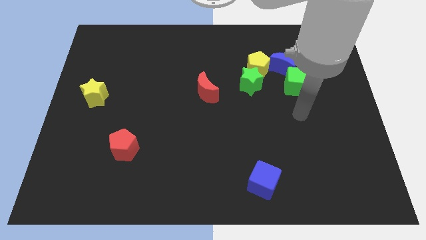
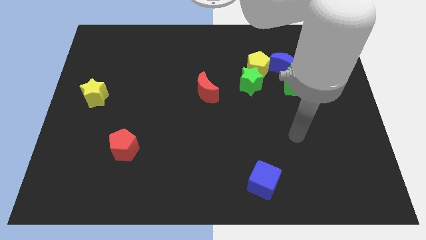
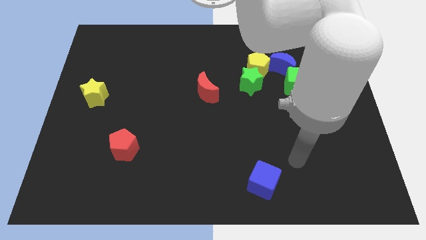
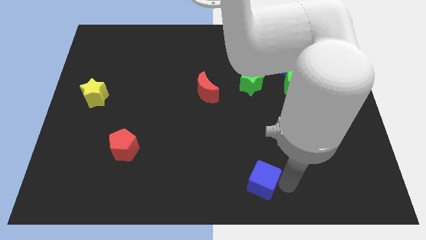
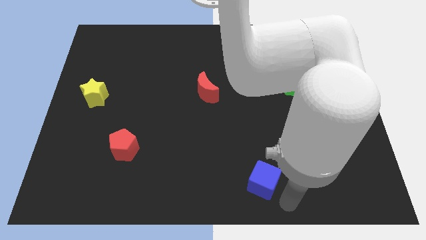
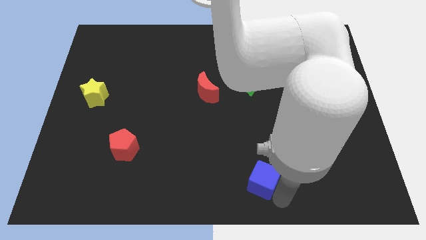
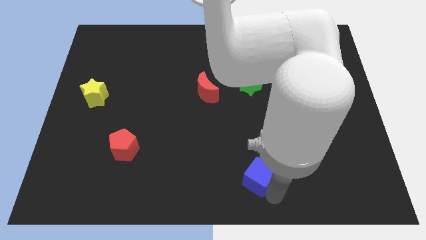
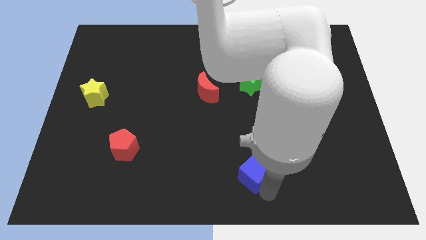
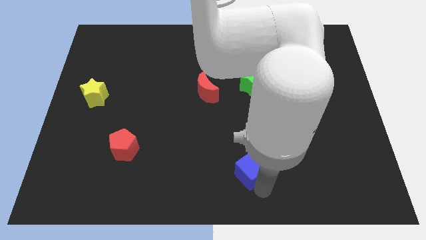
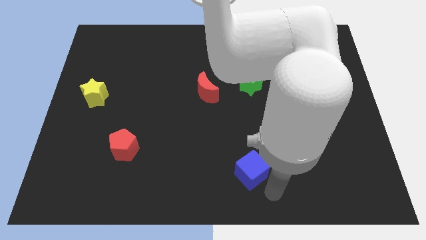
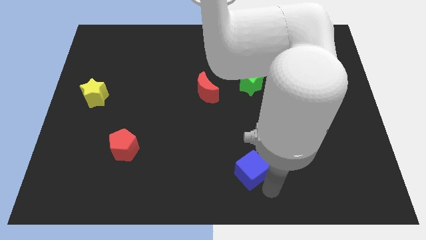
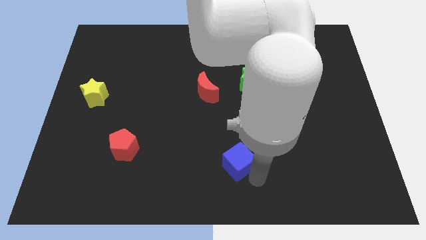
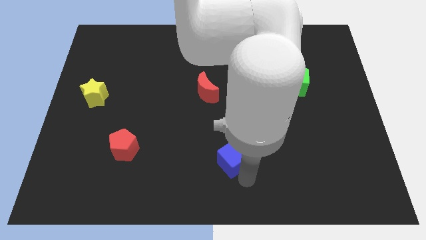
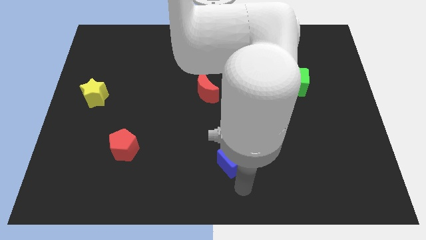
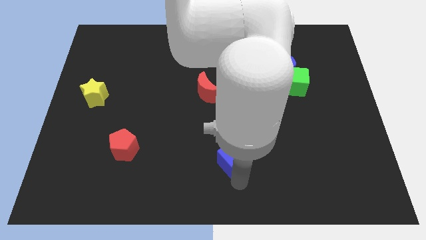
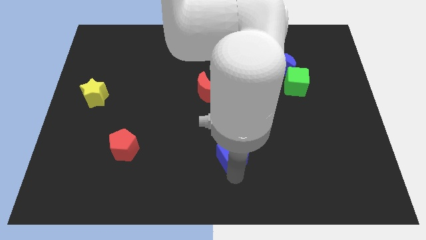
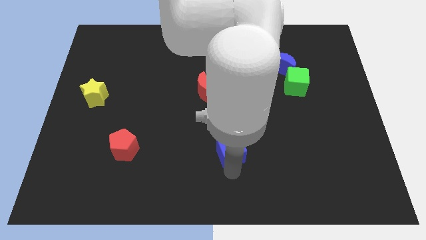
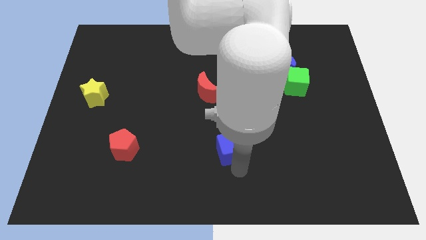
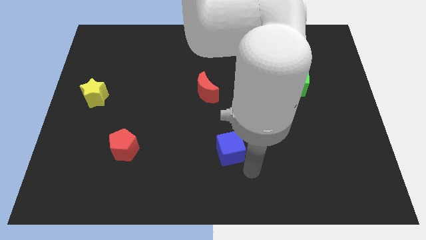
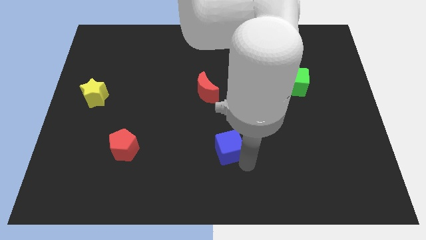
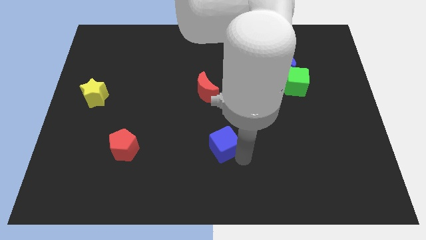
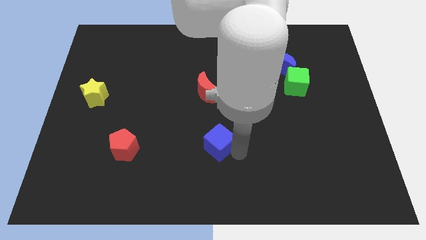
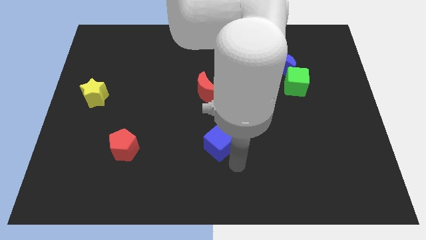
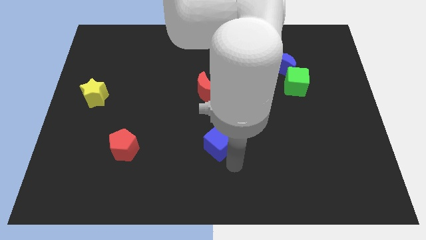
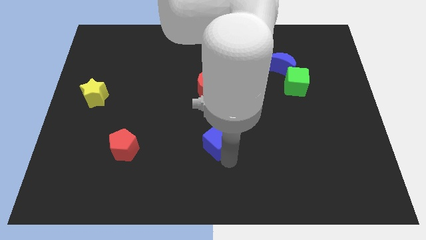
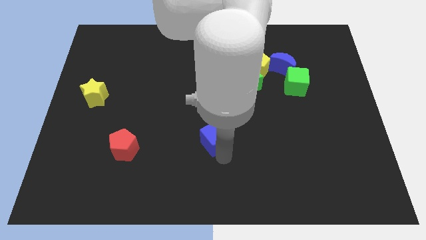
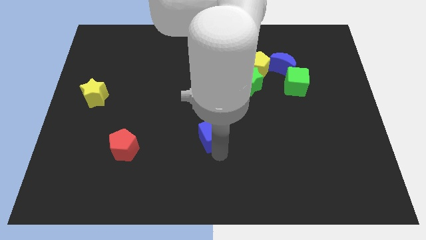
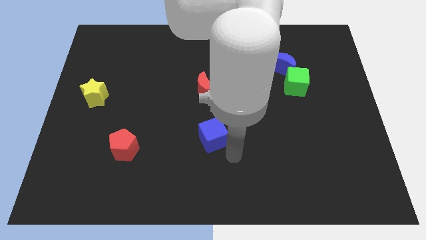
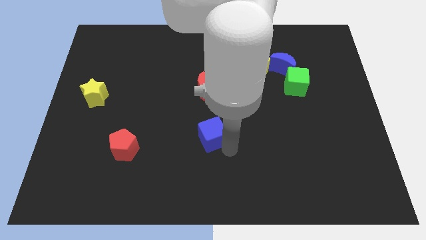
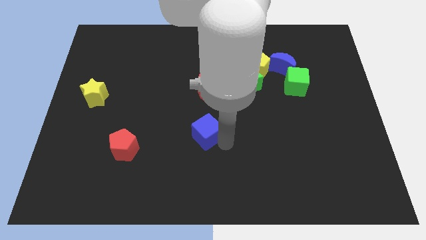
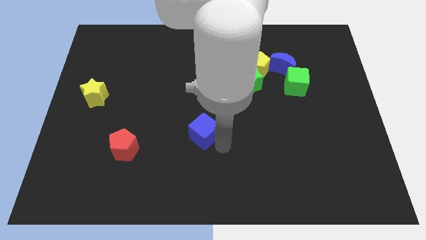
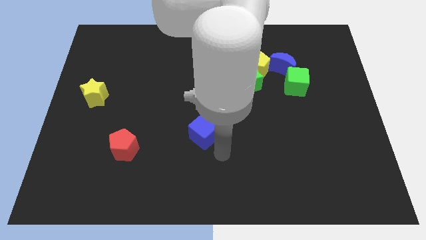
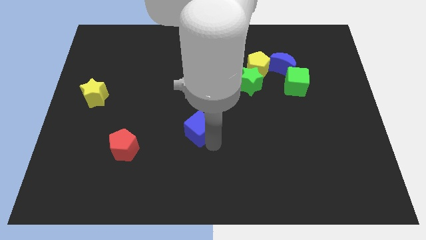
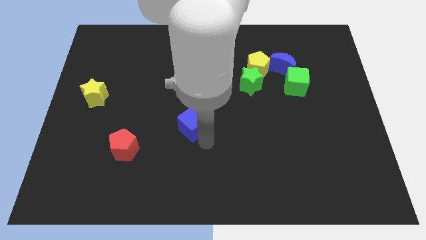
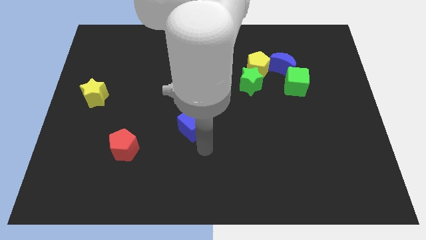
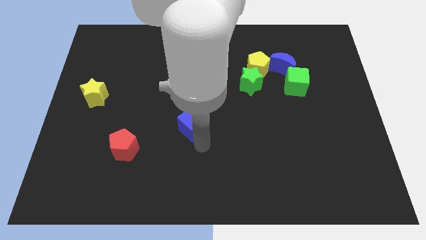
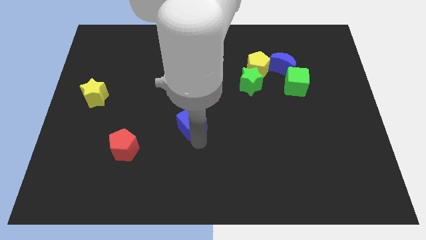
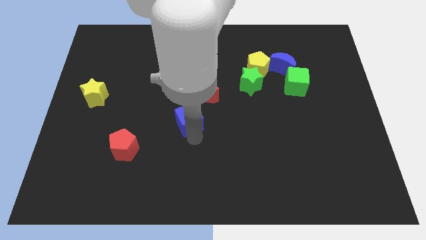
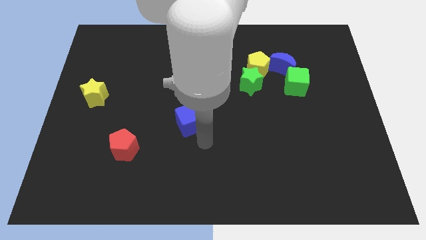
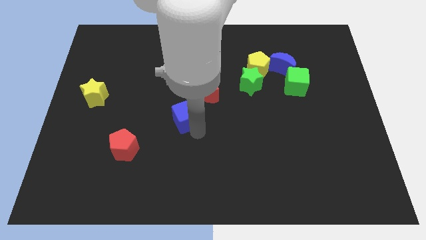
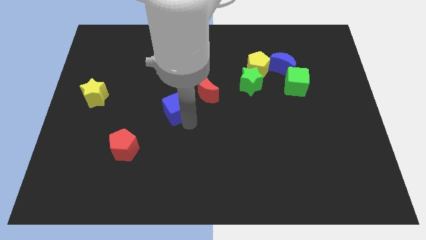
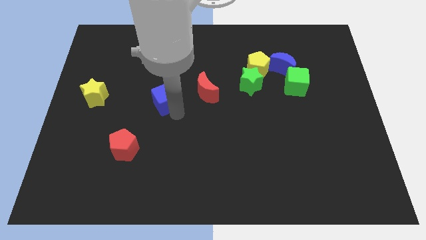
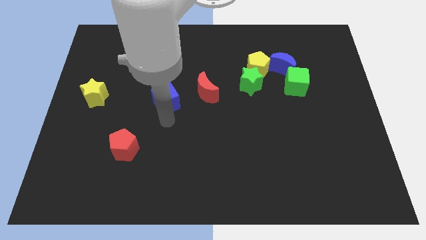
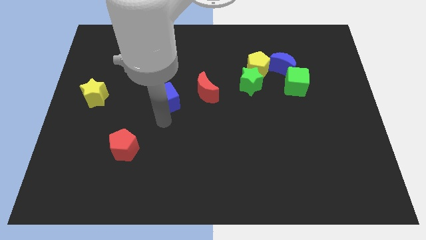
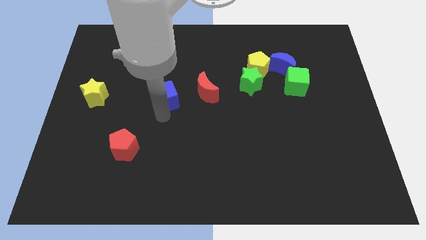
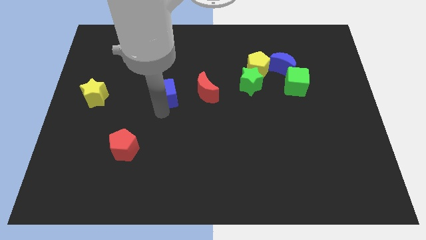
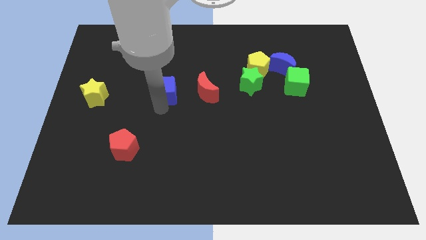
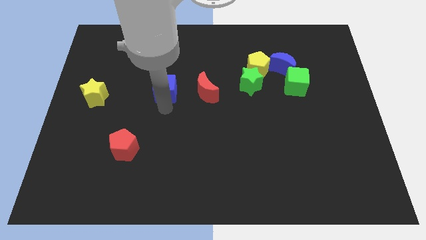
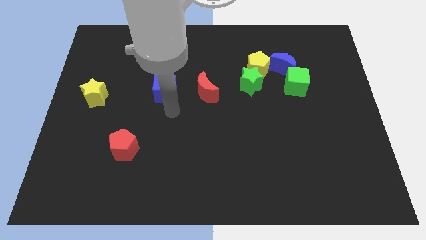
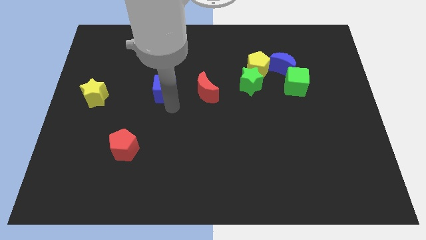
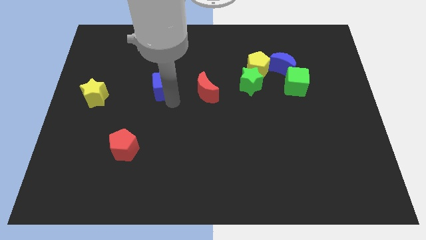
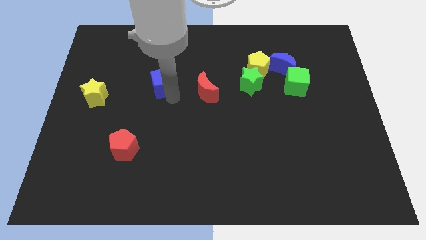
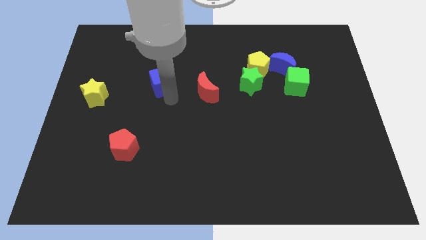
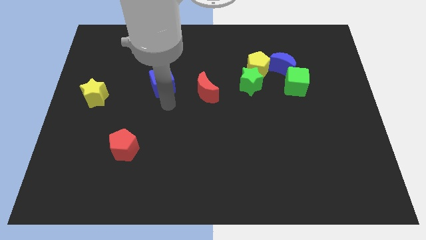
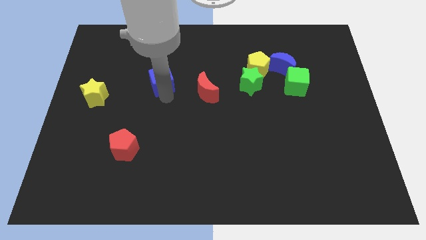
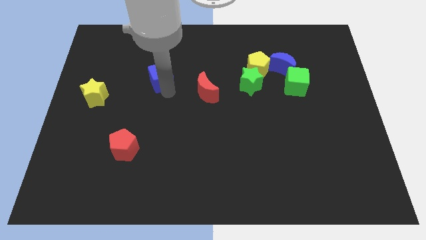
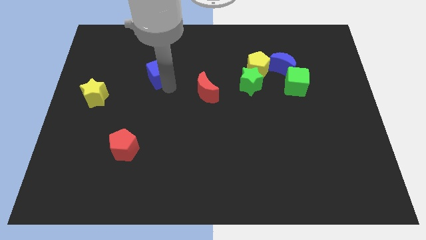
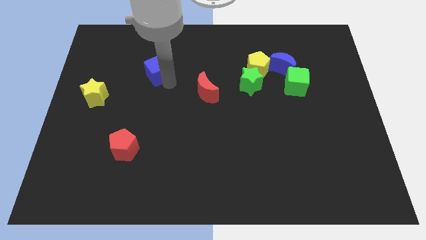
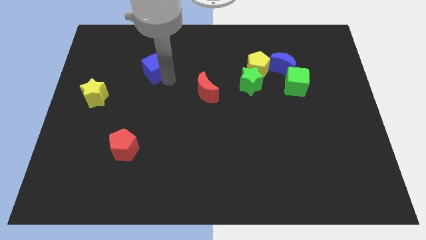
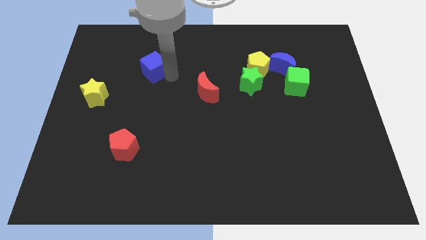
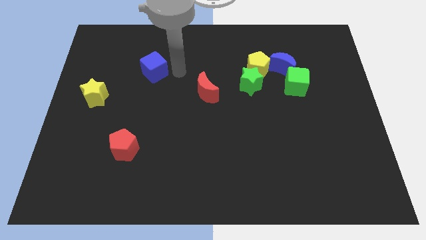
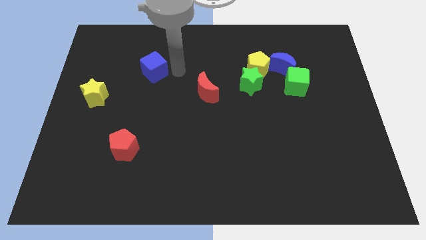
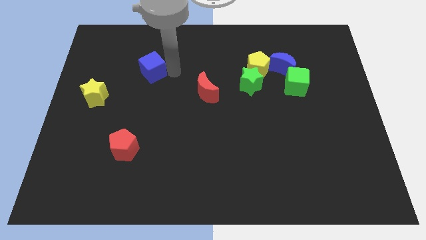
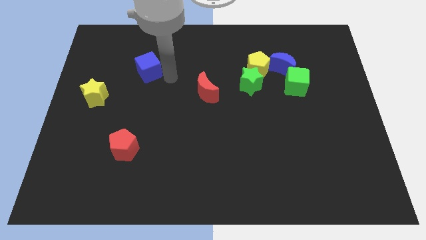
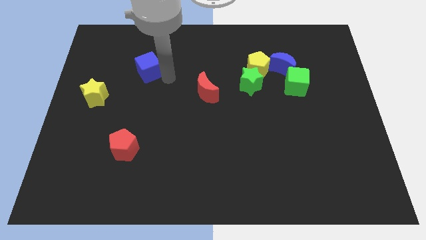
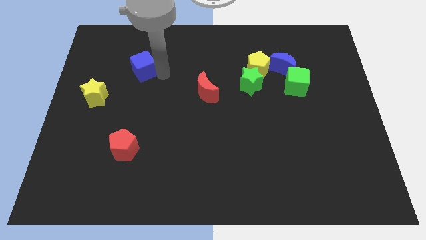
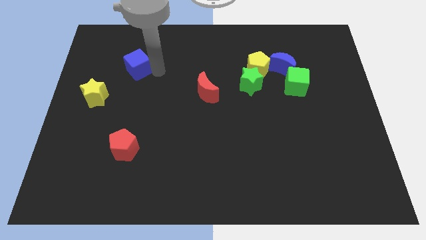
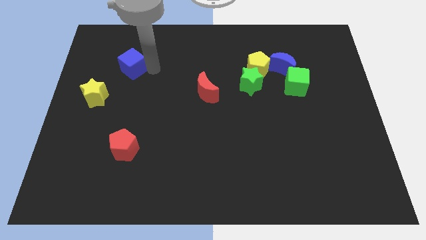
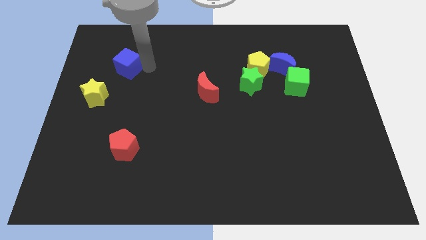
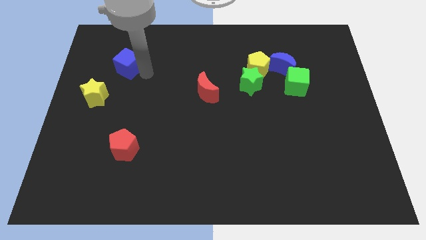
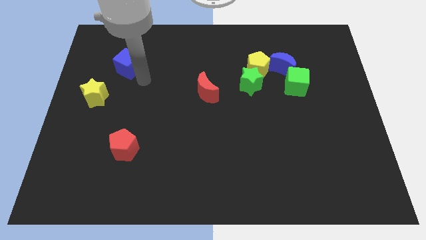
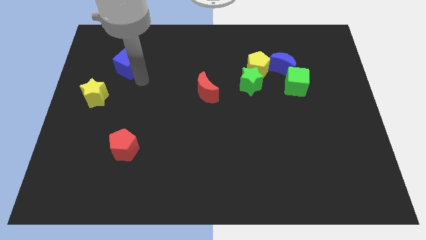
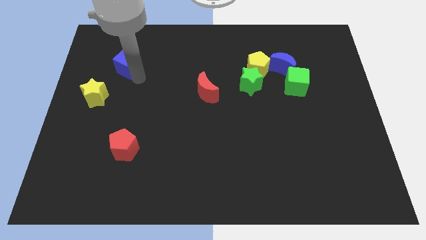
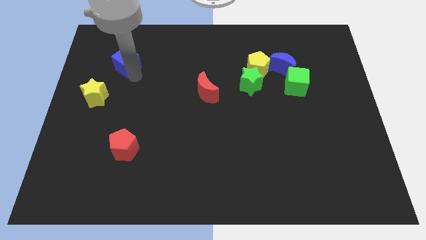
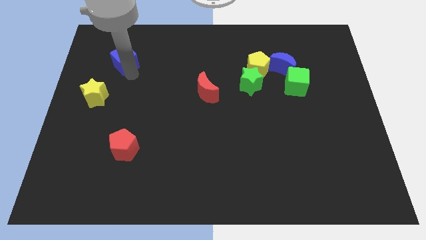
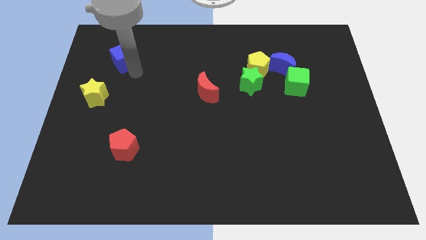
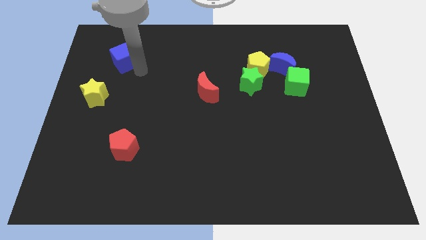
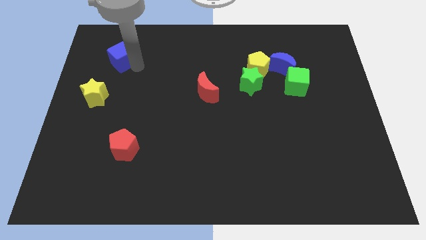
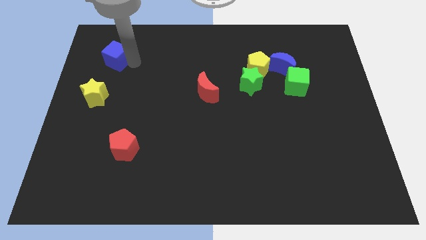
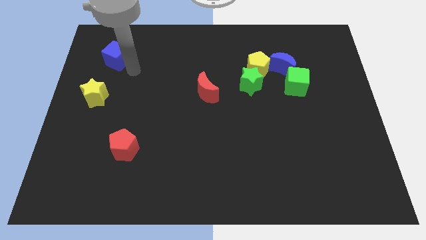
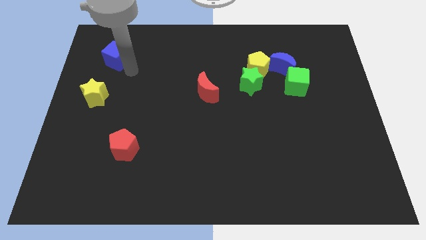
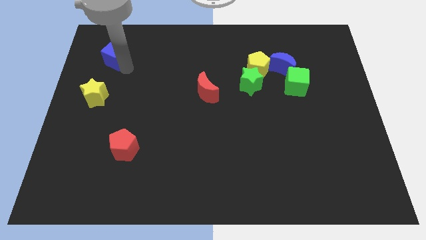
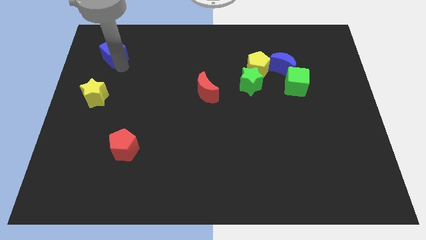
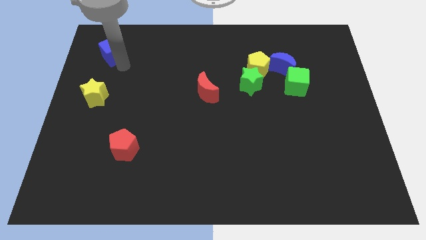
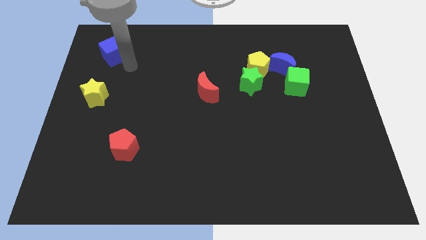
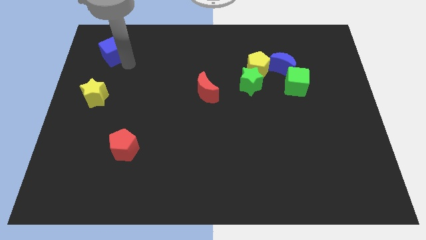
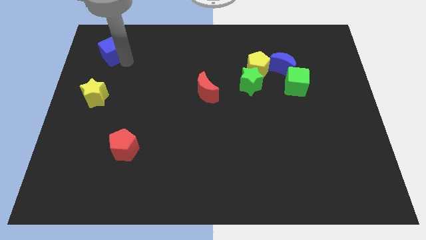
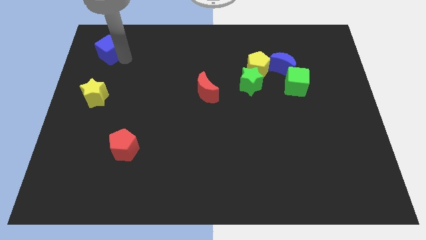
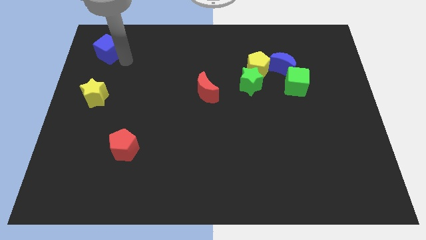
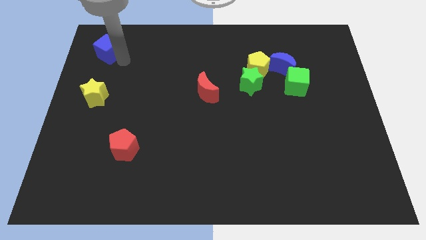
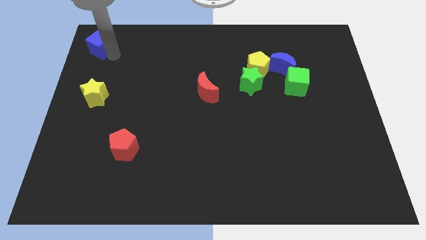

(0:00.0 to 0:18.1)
slide the blue cube to the top left
